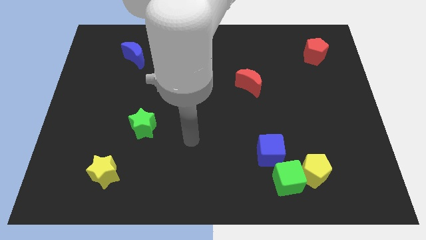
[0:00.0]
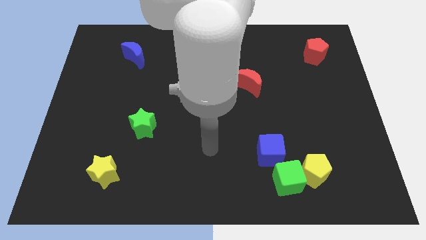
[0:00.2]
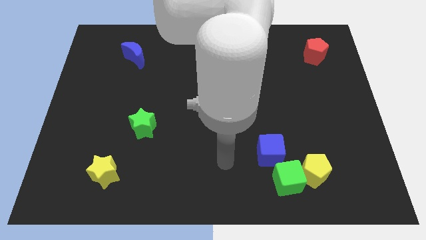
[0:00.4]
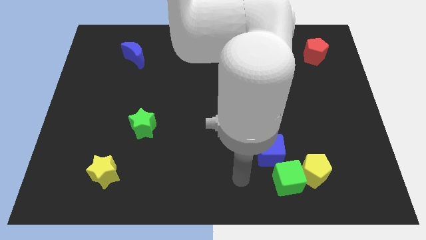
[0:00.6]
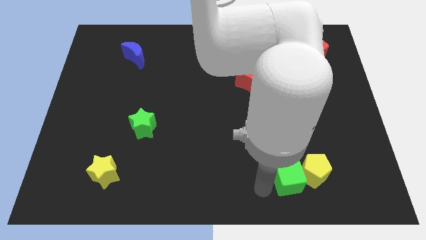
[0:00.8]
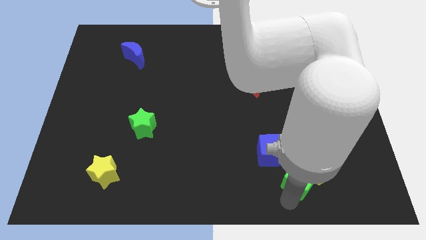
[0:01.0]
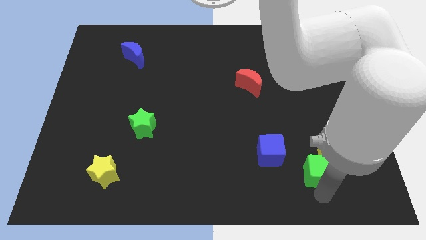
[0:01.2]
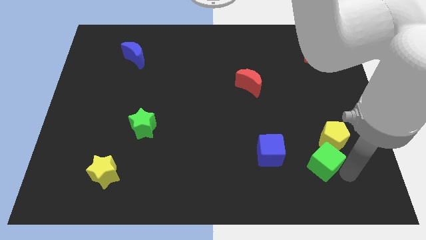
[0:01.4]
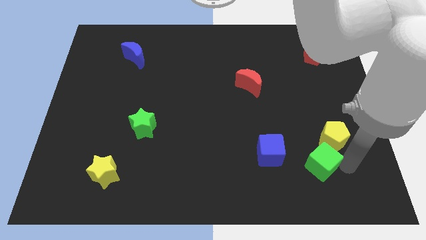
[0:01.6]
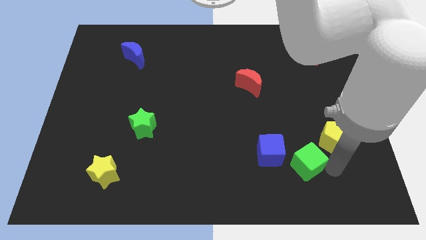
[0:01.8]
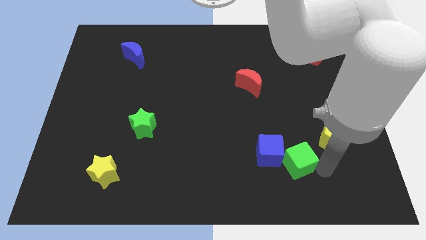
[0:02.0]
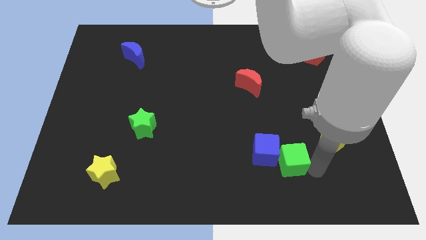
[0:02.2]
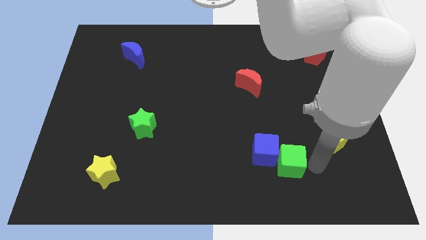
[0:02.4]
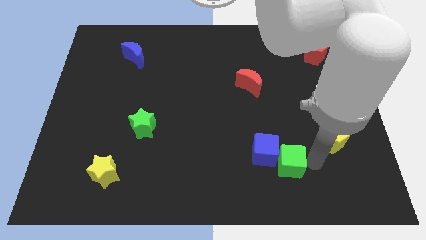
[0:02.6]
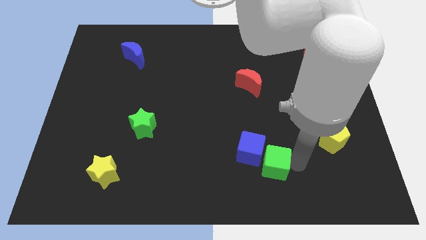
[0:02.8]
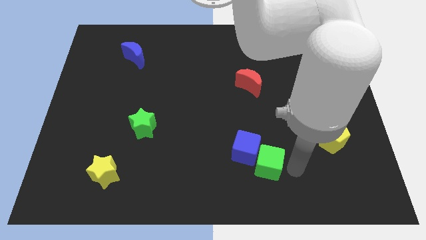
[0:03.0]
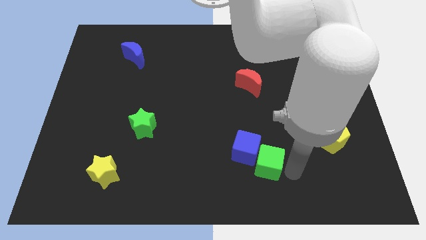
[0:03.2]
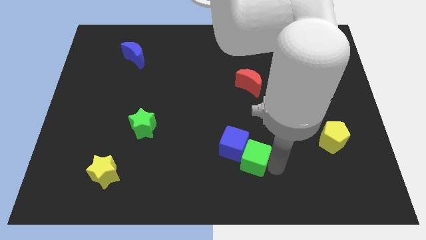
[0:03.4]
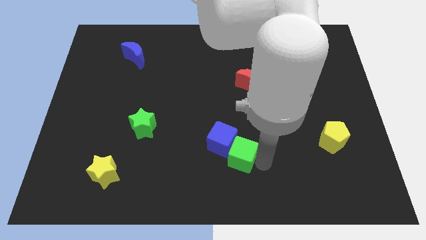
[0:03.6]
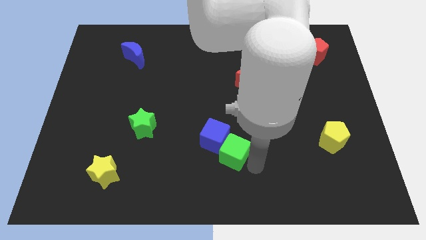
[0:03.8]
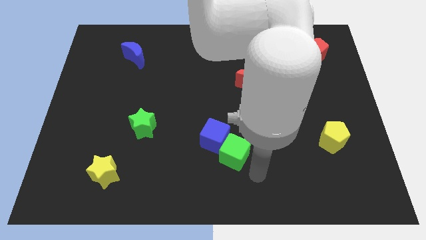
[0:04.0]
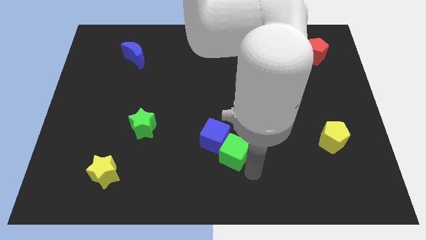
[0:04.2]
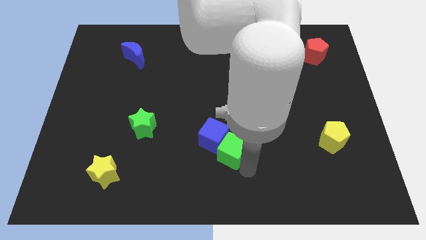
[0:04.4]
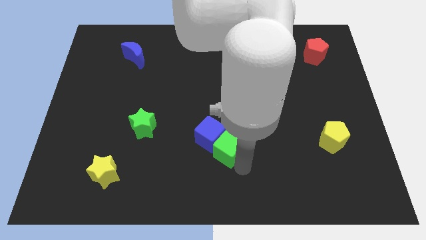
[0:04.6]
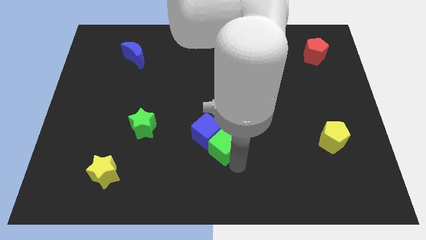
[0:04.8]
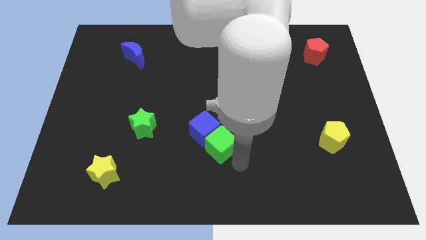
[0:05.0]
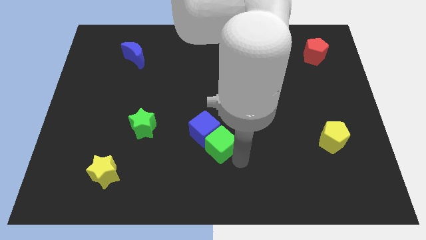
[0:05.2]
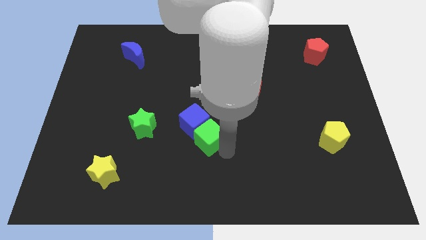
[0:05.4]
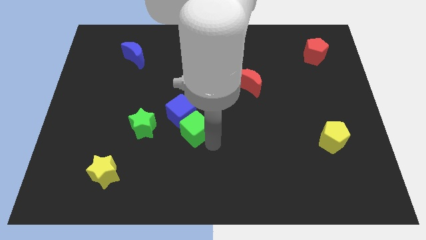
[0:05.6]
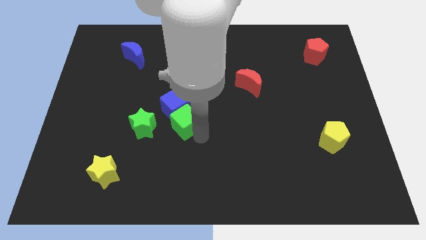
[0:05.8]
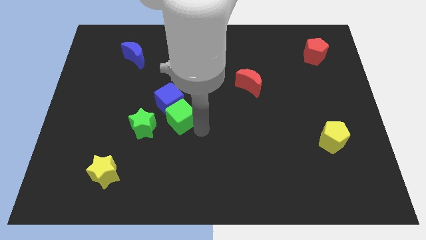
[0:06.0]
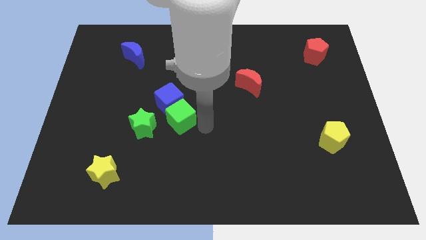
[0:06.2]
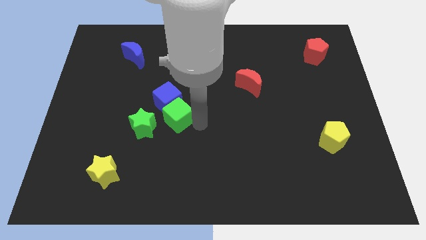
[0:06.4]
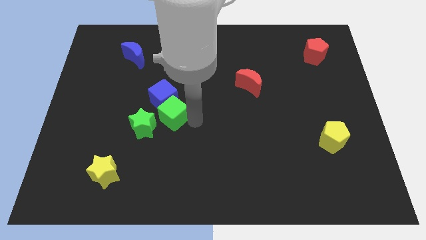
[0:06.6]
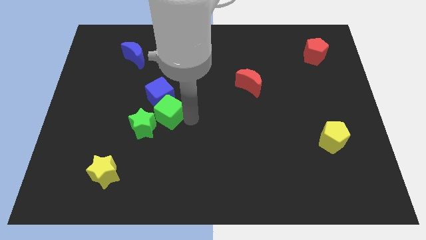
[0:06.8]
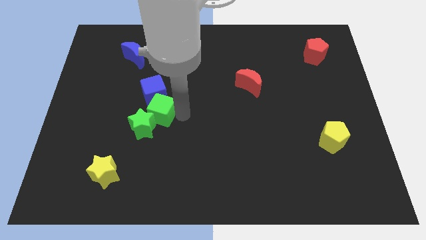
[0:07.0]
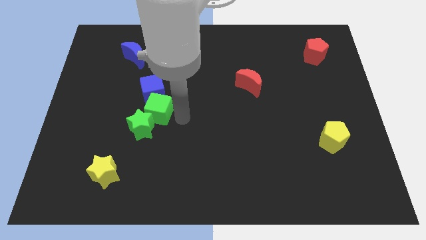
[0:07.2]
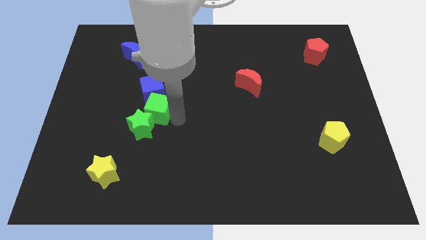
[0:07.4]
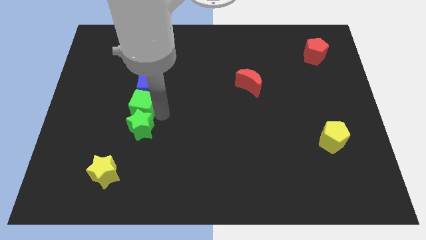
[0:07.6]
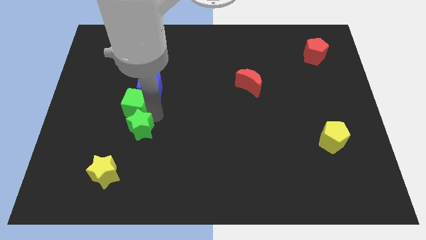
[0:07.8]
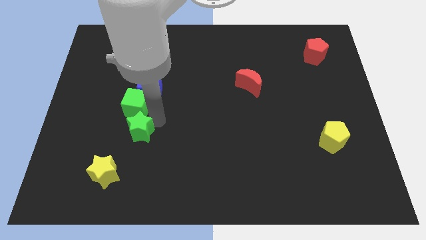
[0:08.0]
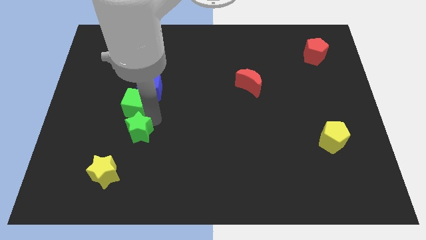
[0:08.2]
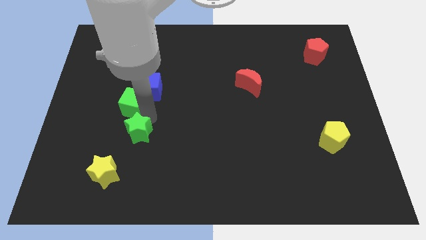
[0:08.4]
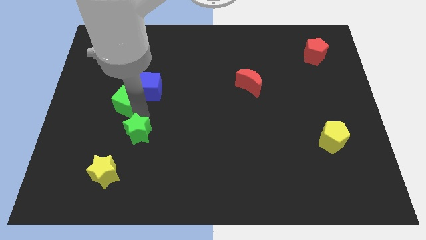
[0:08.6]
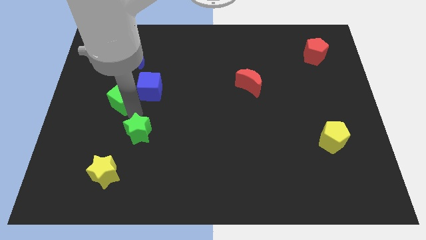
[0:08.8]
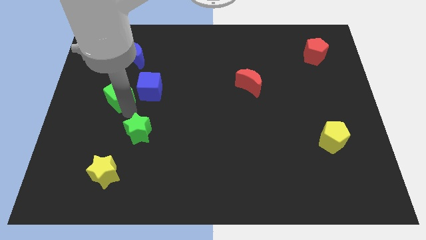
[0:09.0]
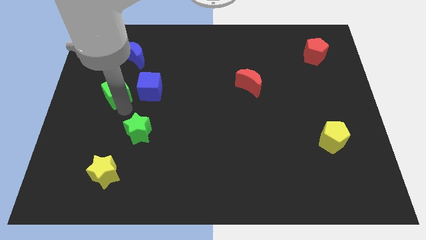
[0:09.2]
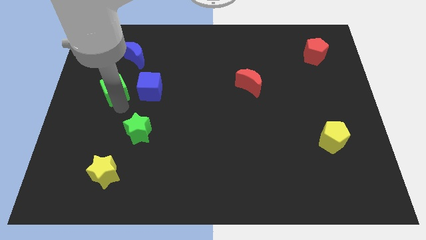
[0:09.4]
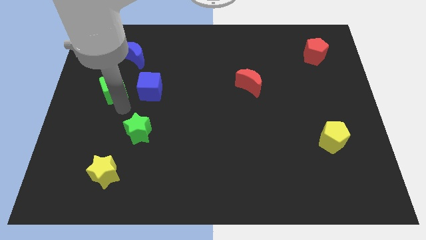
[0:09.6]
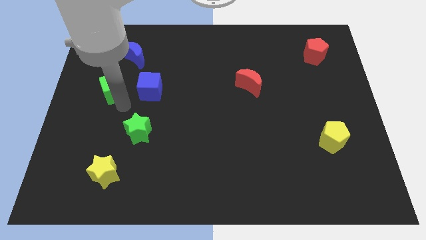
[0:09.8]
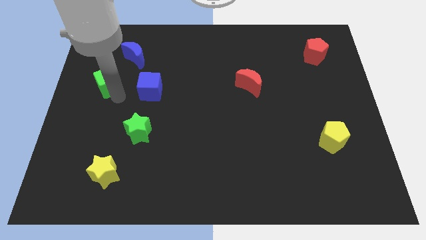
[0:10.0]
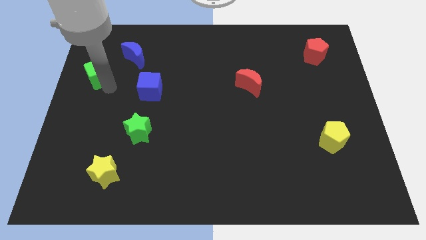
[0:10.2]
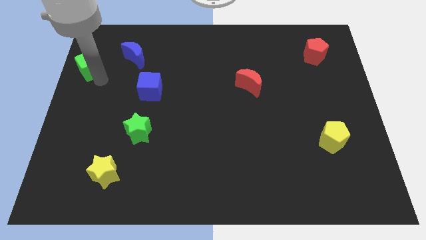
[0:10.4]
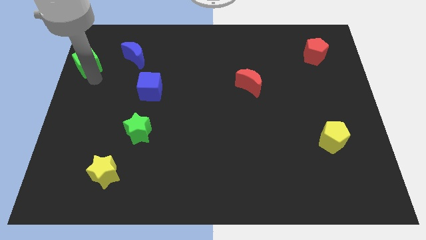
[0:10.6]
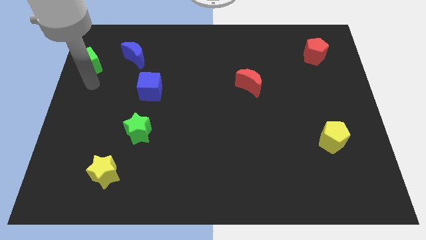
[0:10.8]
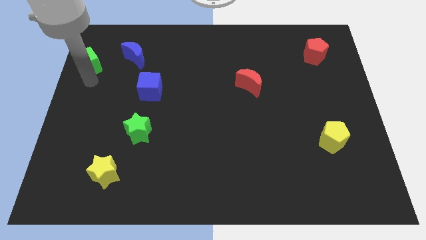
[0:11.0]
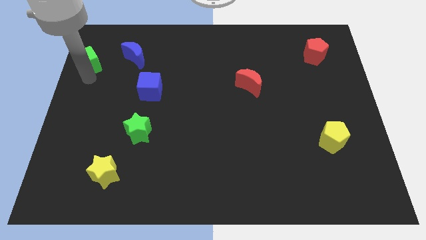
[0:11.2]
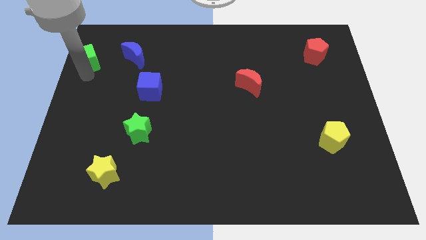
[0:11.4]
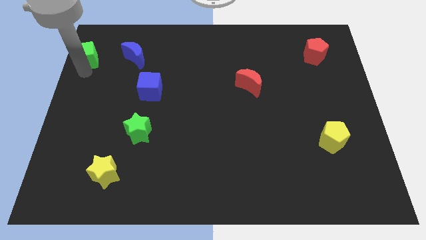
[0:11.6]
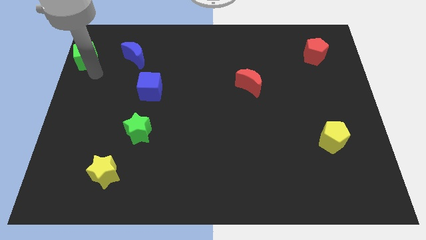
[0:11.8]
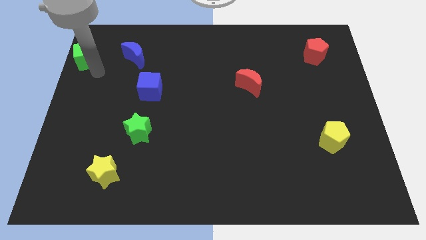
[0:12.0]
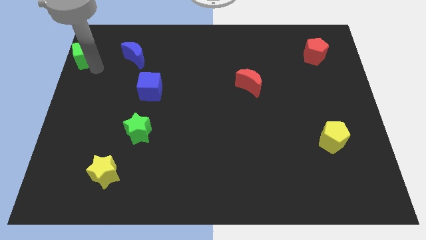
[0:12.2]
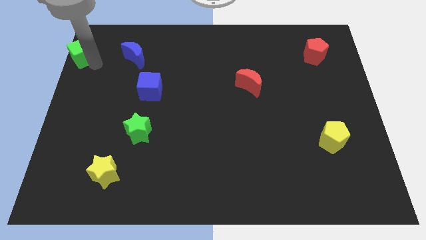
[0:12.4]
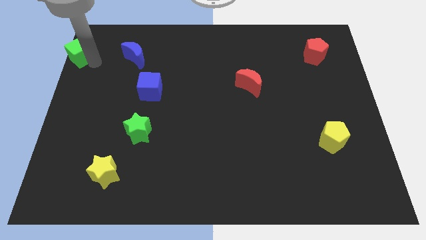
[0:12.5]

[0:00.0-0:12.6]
put the green cube to the top left of the board
